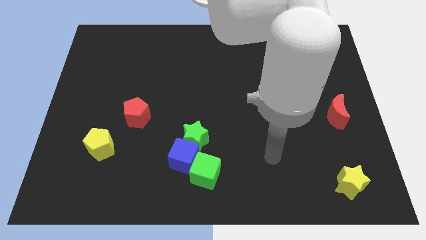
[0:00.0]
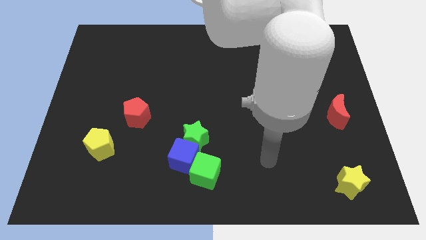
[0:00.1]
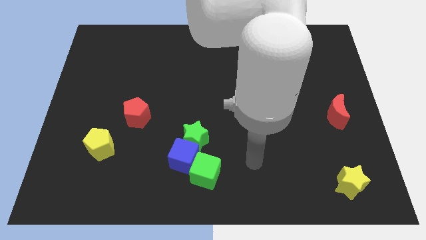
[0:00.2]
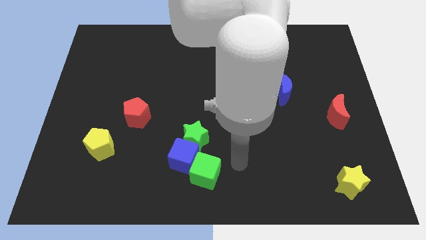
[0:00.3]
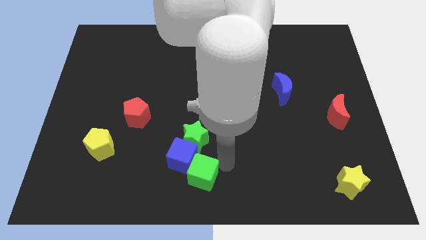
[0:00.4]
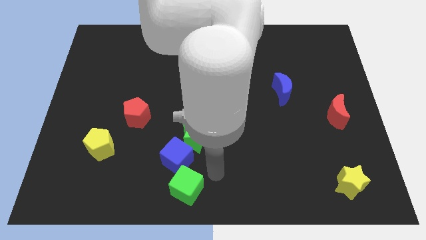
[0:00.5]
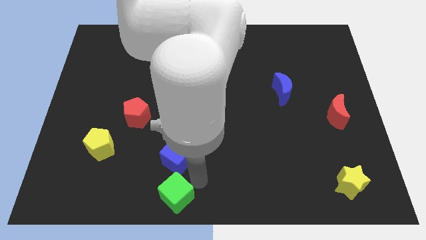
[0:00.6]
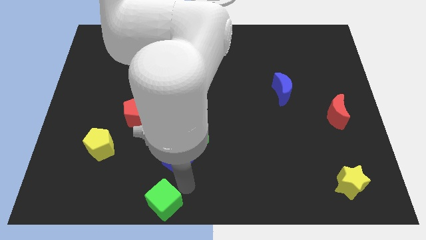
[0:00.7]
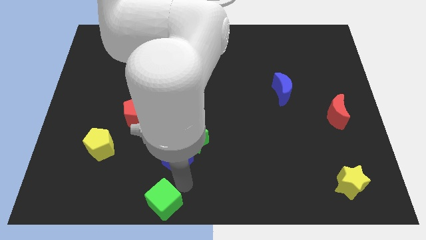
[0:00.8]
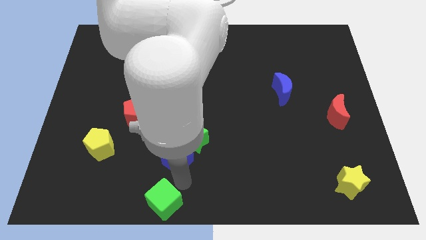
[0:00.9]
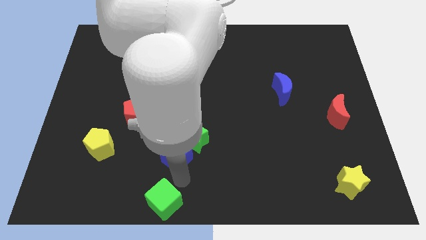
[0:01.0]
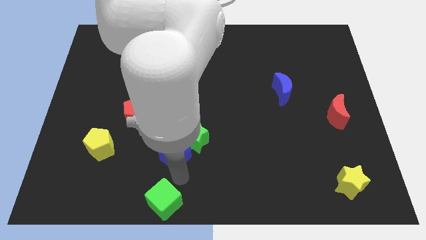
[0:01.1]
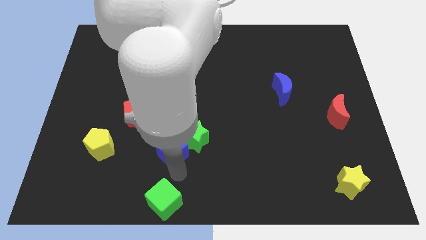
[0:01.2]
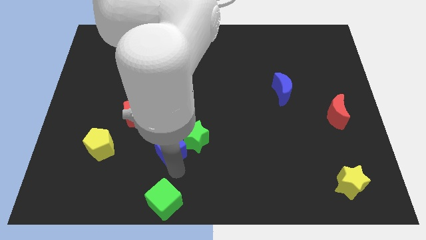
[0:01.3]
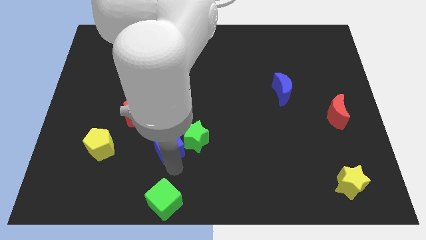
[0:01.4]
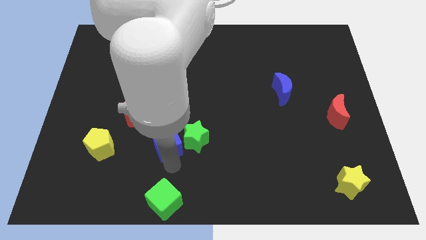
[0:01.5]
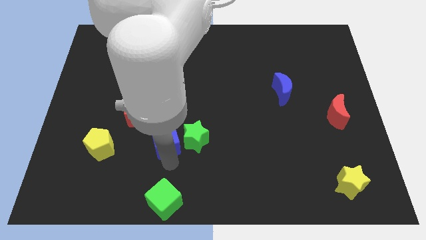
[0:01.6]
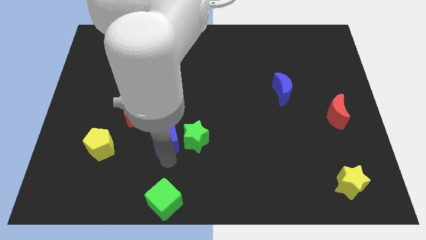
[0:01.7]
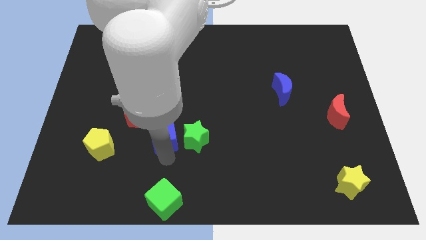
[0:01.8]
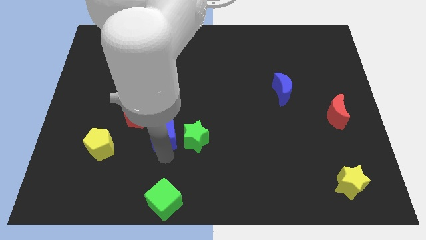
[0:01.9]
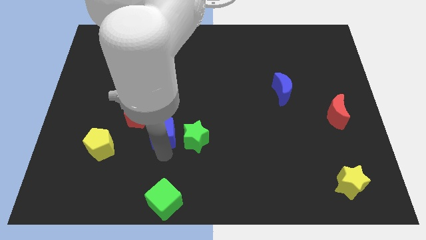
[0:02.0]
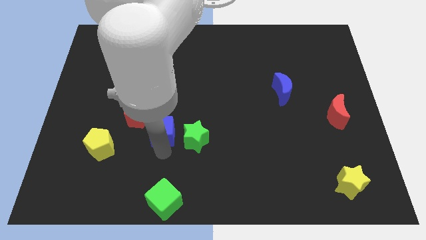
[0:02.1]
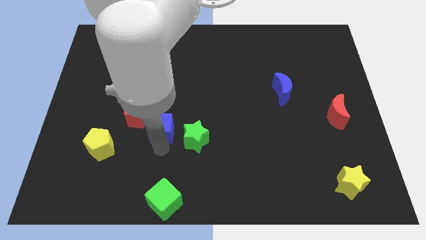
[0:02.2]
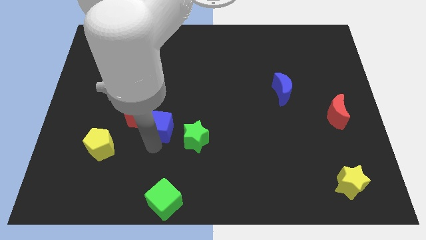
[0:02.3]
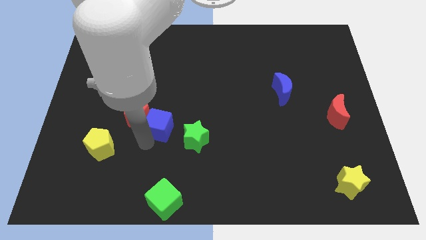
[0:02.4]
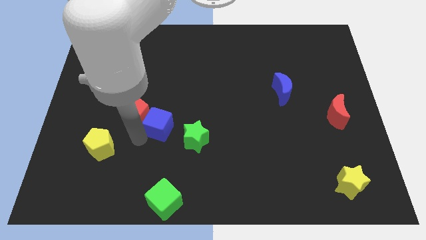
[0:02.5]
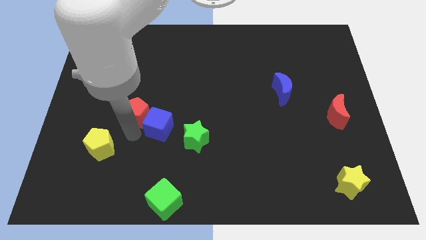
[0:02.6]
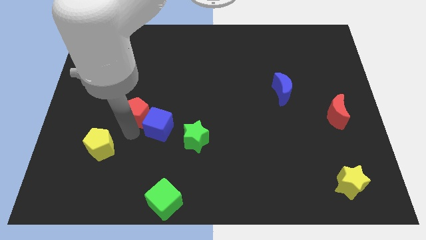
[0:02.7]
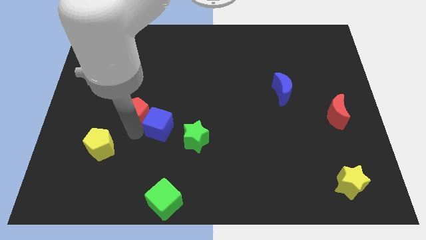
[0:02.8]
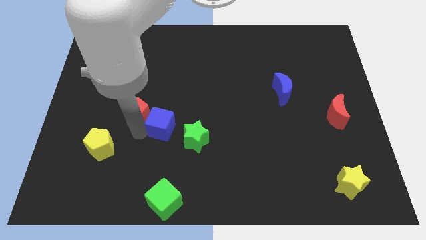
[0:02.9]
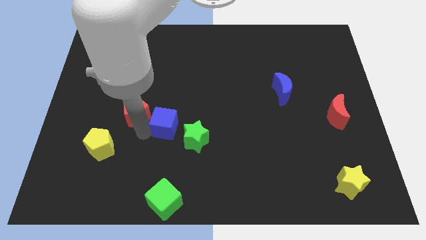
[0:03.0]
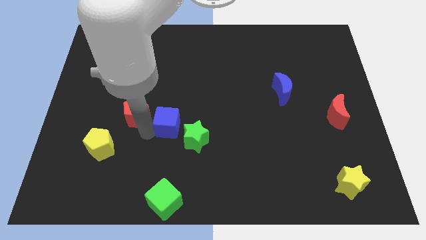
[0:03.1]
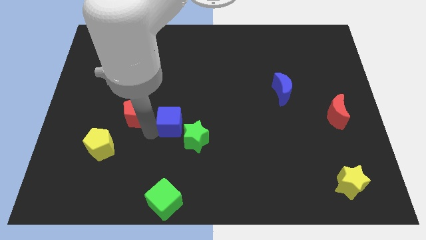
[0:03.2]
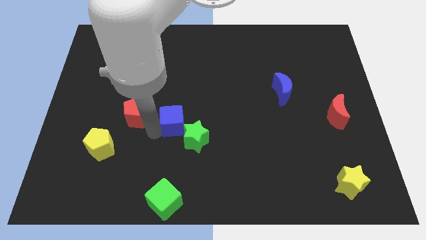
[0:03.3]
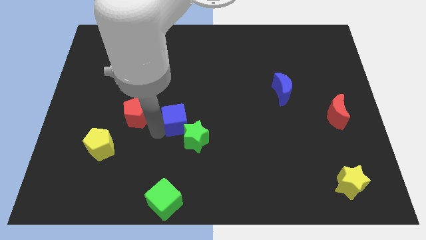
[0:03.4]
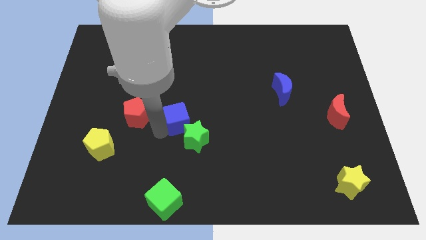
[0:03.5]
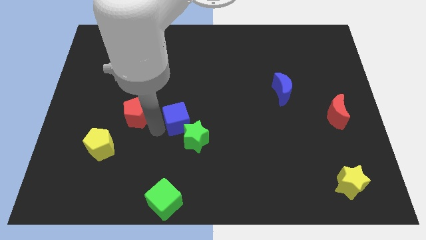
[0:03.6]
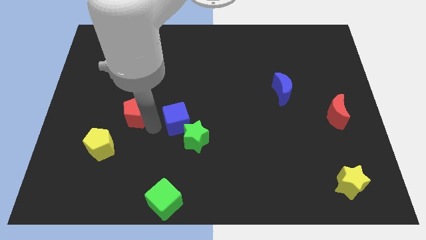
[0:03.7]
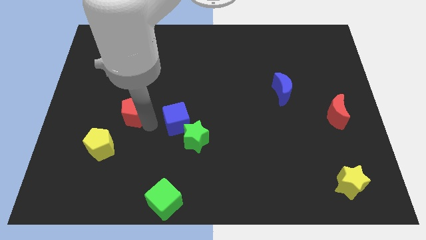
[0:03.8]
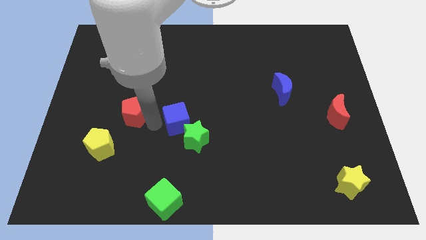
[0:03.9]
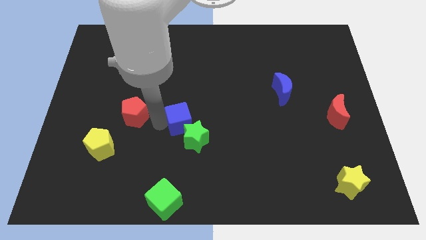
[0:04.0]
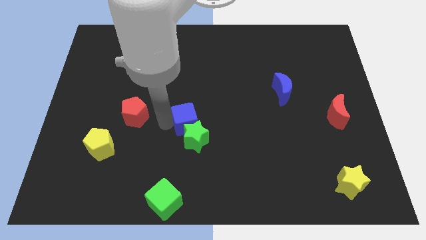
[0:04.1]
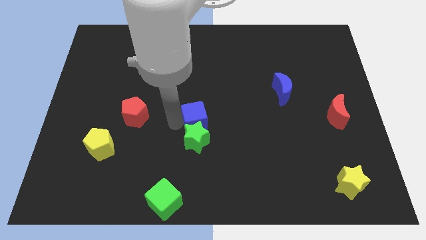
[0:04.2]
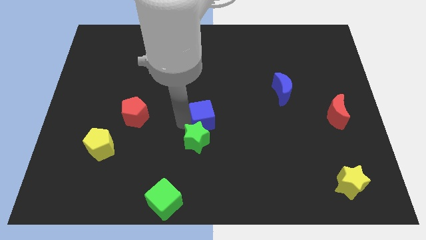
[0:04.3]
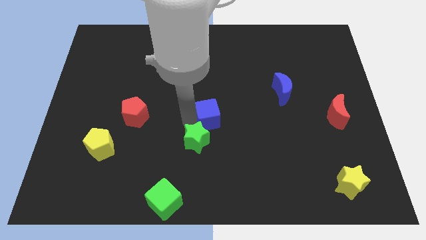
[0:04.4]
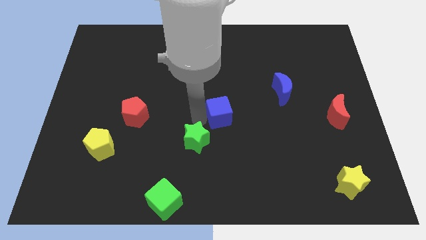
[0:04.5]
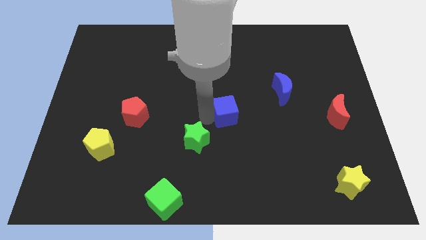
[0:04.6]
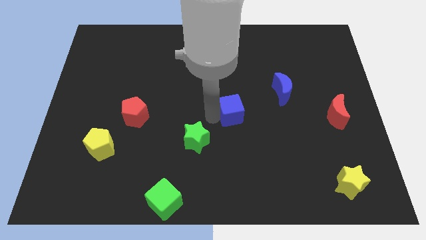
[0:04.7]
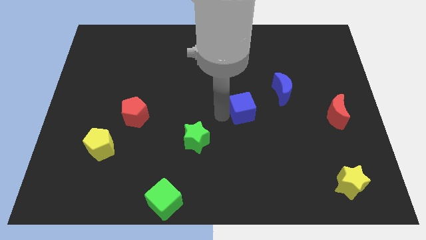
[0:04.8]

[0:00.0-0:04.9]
push the blue cube diagonally down and to the left of the blue moon
